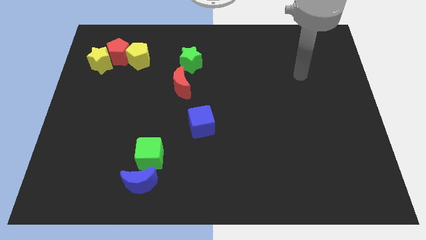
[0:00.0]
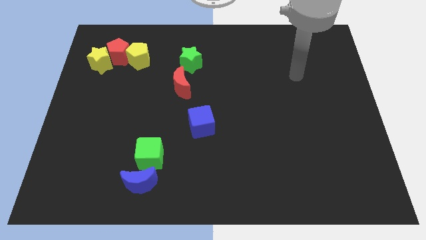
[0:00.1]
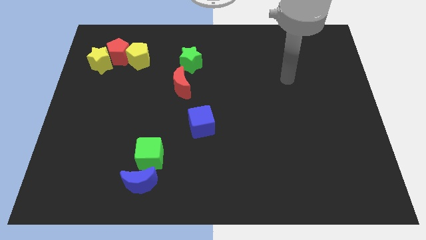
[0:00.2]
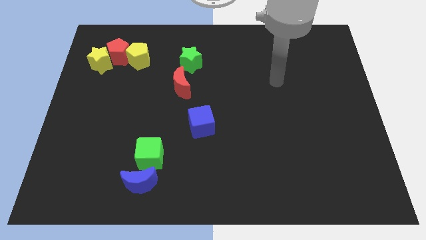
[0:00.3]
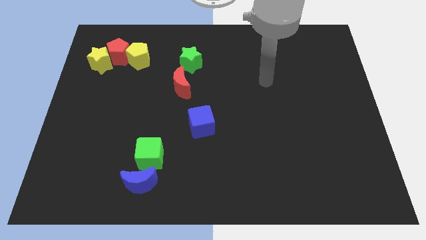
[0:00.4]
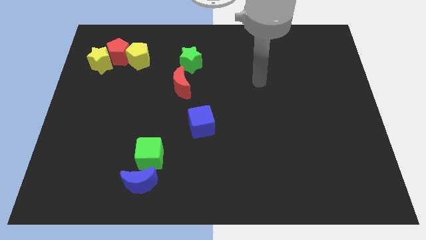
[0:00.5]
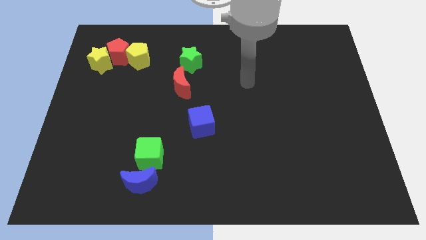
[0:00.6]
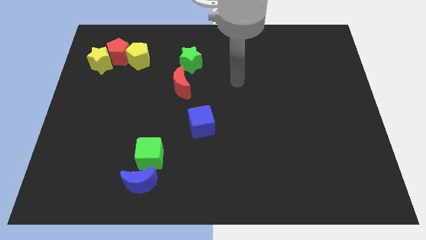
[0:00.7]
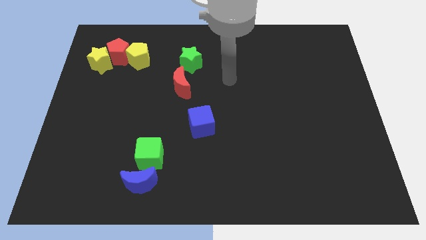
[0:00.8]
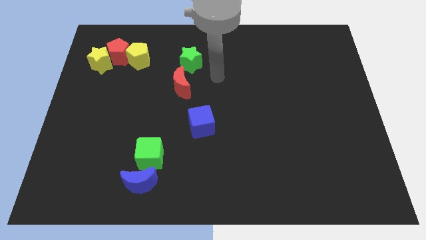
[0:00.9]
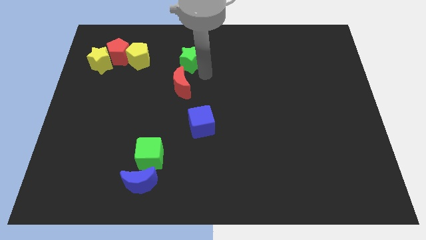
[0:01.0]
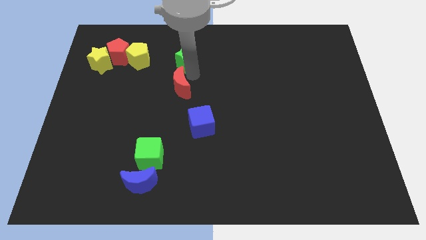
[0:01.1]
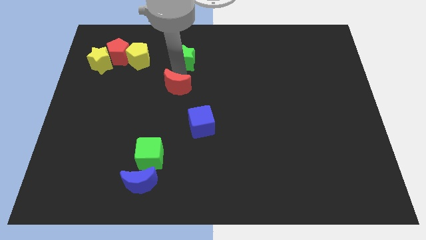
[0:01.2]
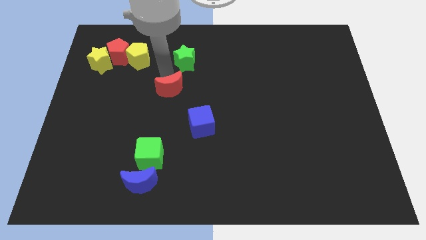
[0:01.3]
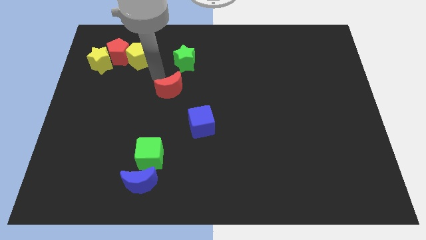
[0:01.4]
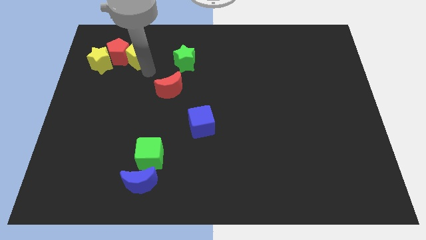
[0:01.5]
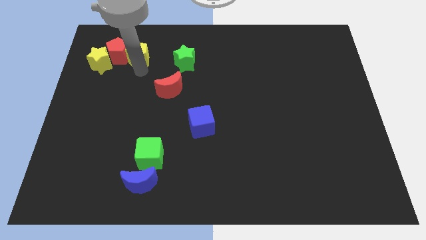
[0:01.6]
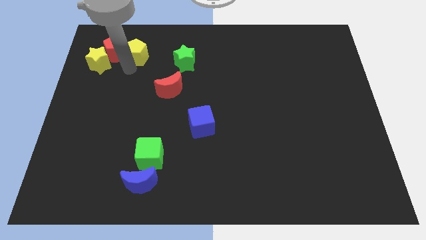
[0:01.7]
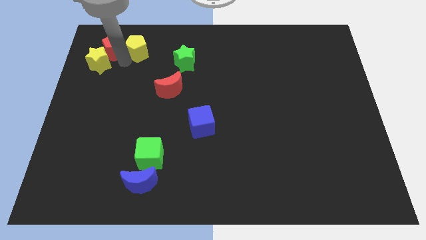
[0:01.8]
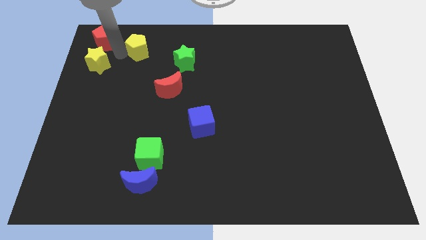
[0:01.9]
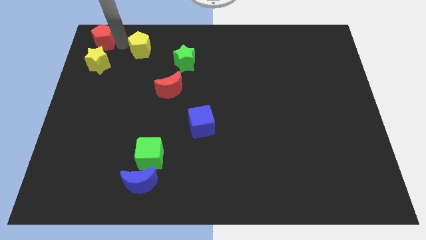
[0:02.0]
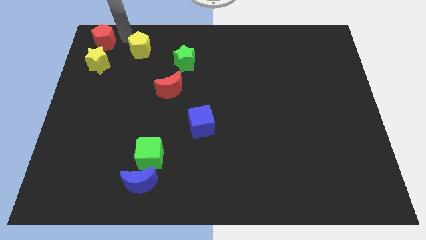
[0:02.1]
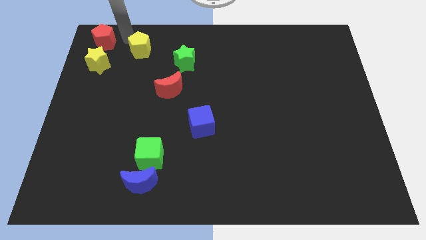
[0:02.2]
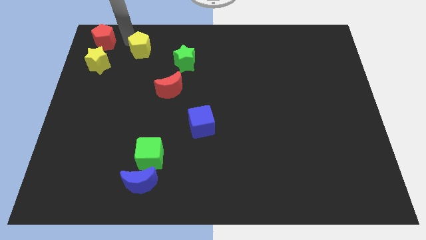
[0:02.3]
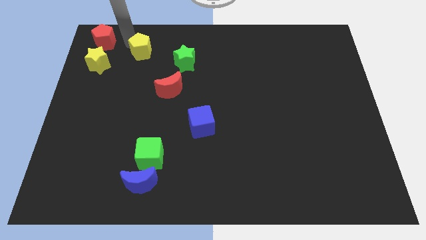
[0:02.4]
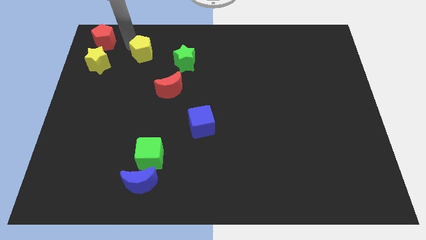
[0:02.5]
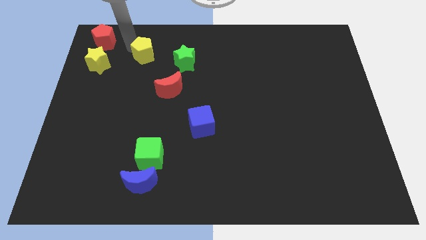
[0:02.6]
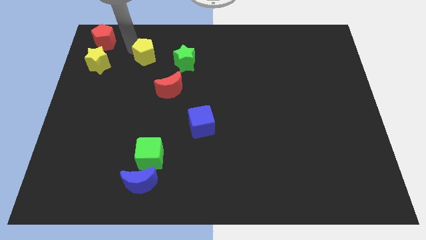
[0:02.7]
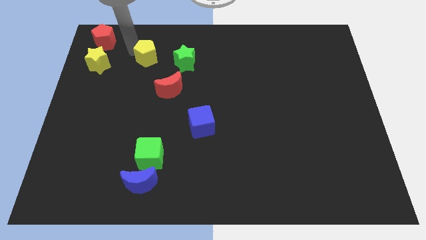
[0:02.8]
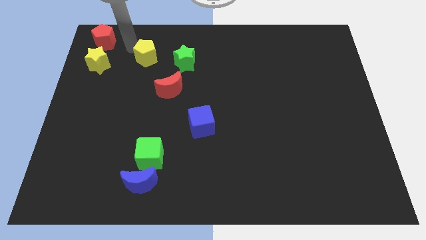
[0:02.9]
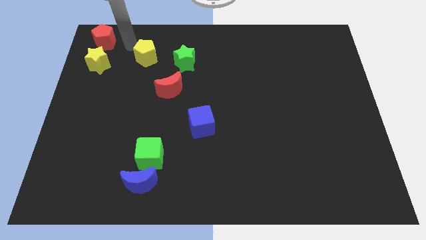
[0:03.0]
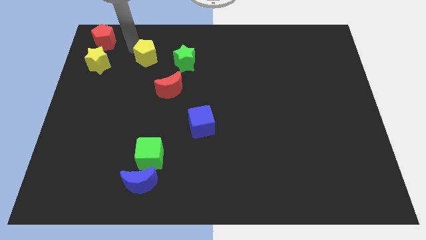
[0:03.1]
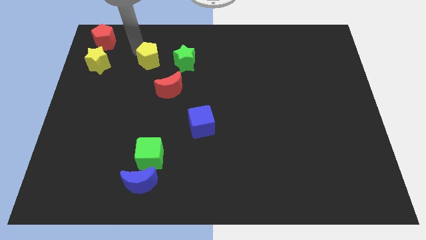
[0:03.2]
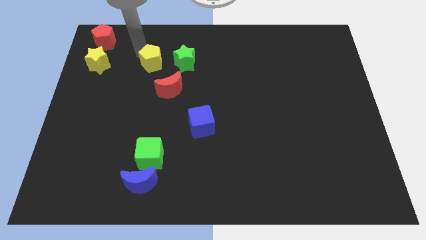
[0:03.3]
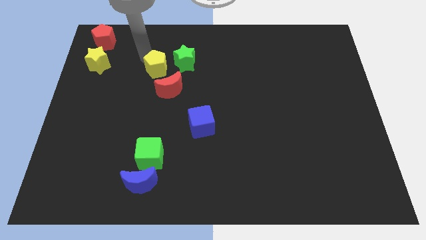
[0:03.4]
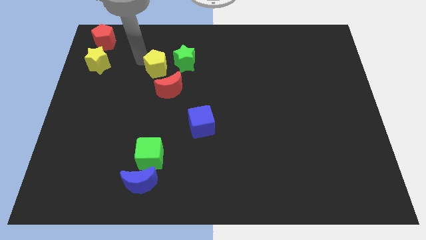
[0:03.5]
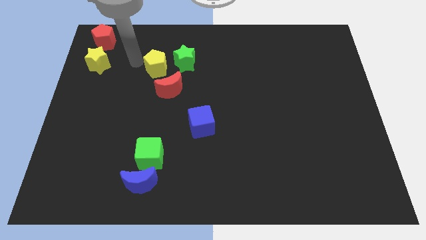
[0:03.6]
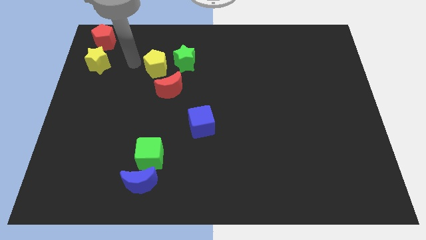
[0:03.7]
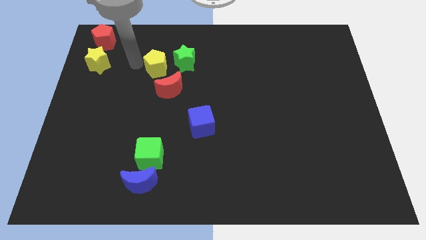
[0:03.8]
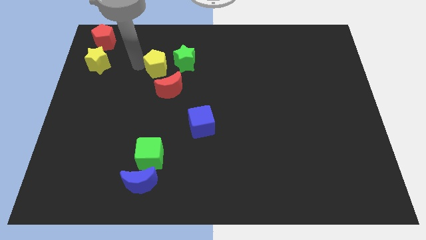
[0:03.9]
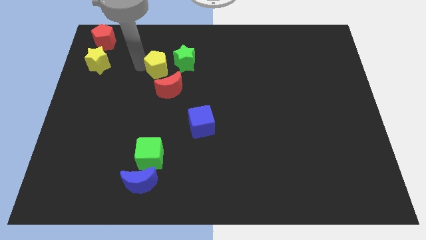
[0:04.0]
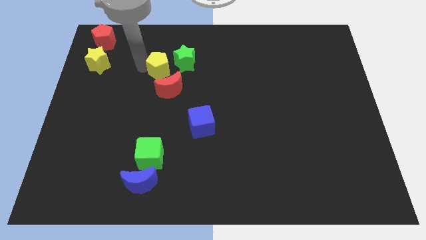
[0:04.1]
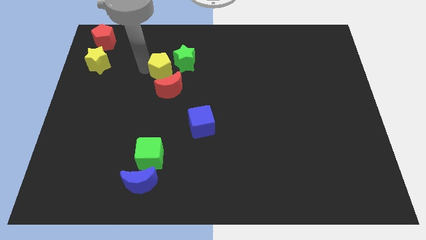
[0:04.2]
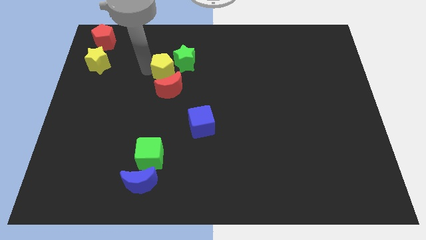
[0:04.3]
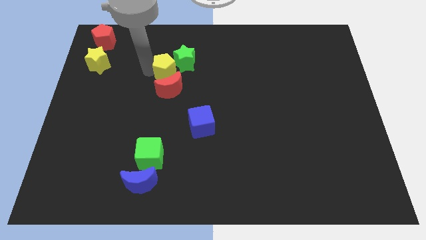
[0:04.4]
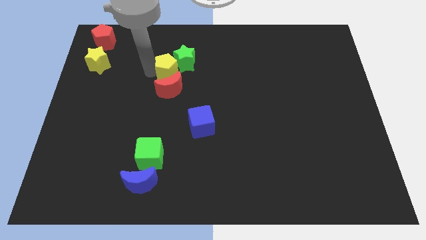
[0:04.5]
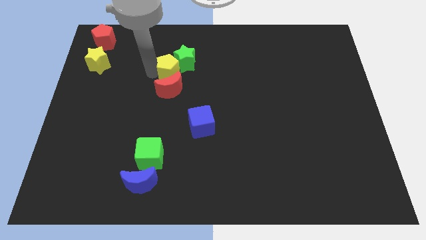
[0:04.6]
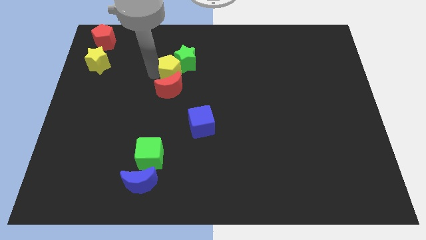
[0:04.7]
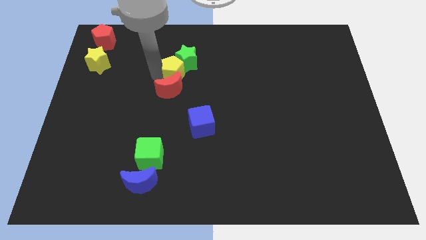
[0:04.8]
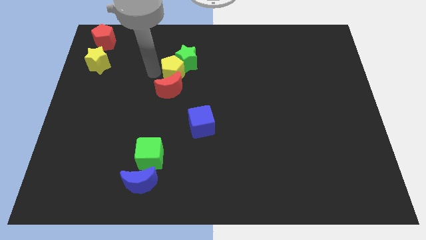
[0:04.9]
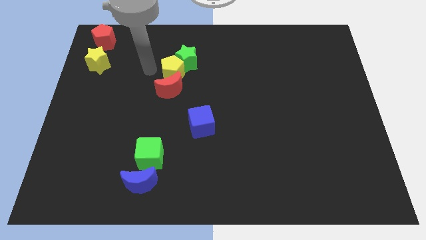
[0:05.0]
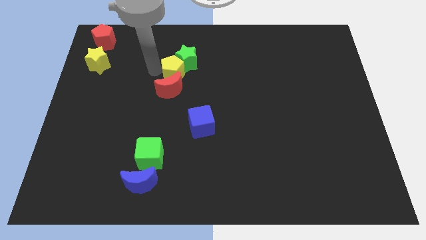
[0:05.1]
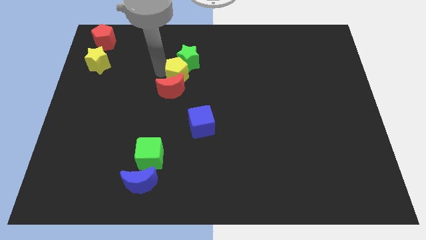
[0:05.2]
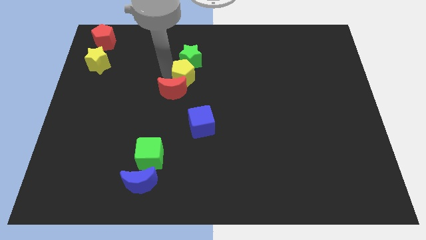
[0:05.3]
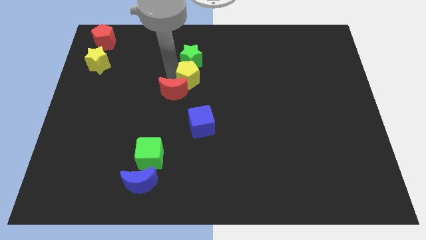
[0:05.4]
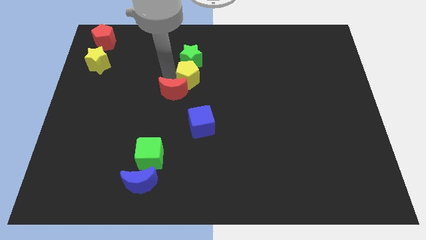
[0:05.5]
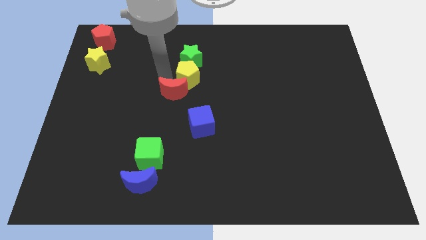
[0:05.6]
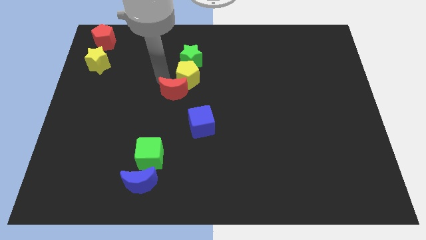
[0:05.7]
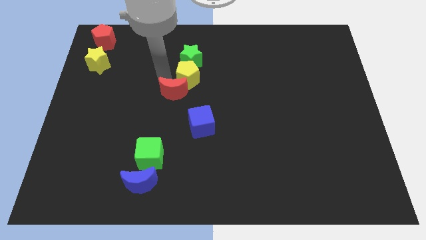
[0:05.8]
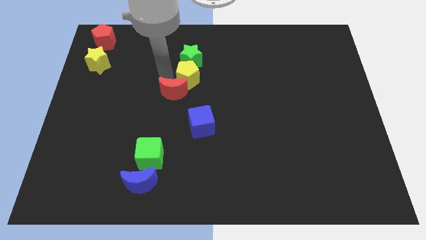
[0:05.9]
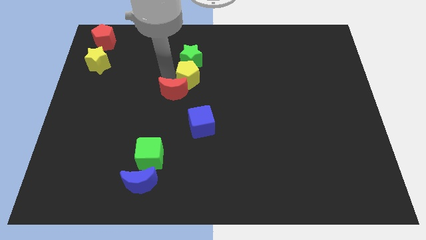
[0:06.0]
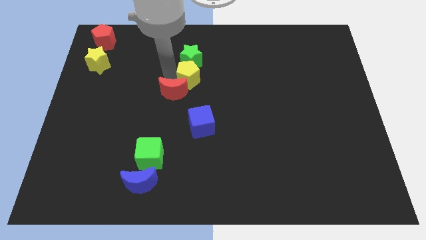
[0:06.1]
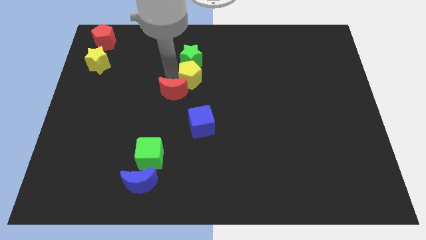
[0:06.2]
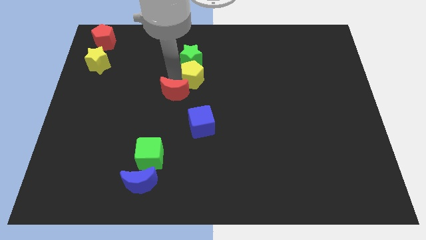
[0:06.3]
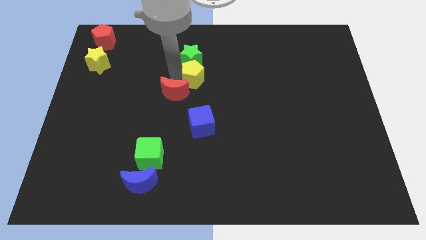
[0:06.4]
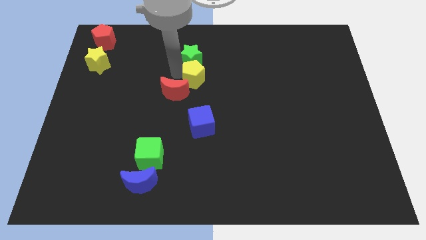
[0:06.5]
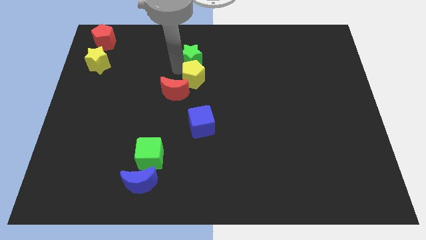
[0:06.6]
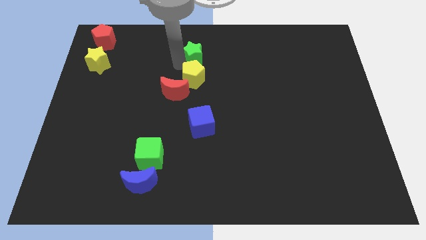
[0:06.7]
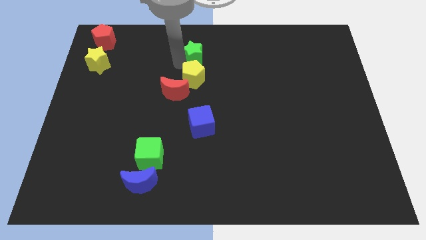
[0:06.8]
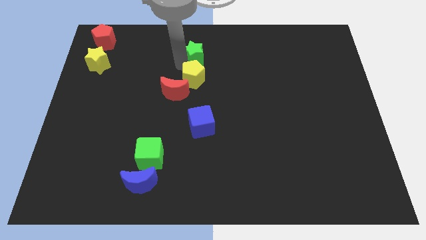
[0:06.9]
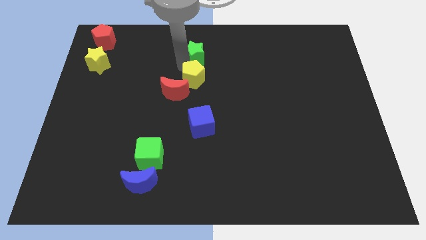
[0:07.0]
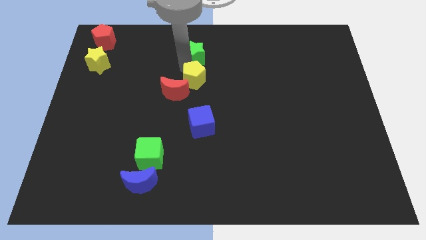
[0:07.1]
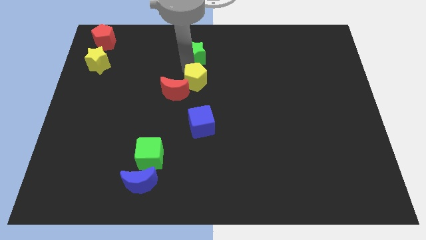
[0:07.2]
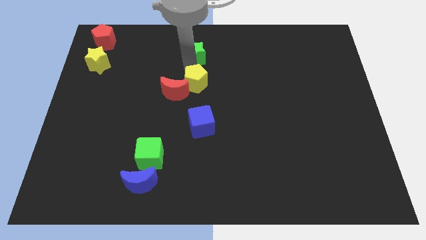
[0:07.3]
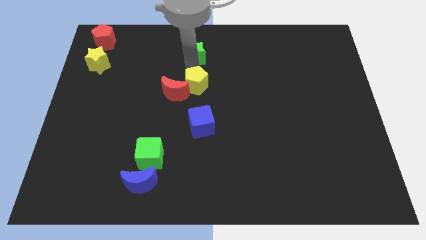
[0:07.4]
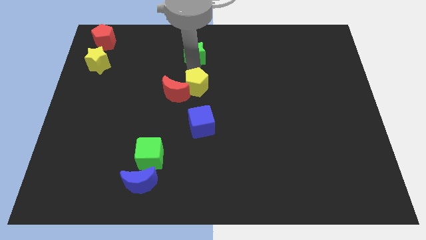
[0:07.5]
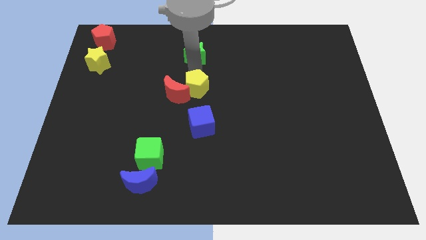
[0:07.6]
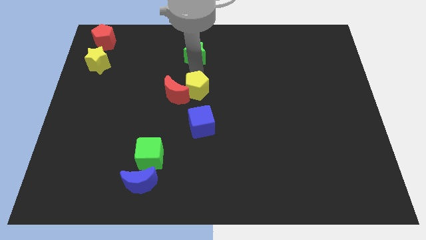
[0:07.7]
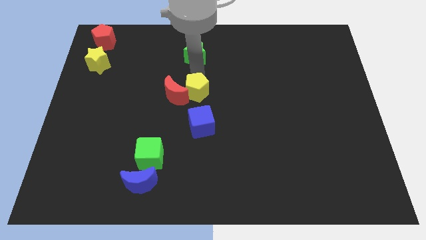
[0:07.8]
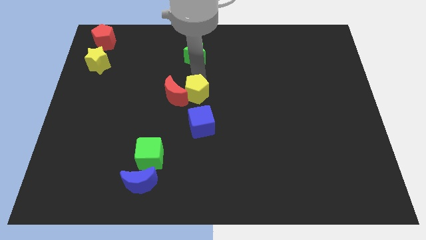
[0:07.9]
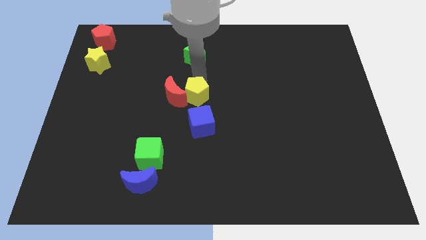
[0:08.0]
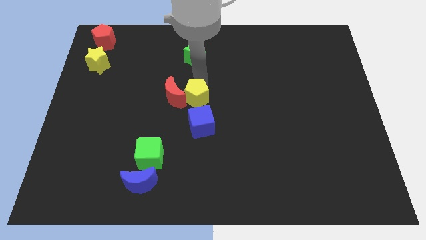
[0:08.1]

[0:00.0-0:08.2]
slide the yellow pentagon down and then to the right
